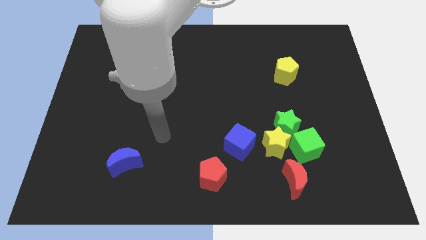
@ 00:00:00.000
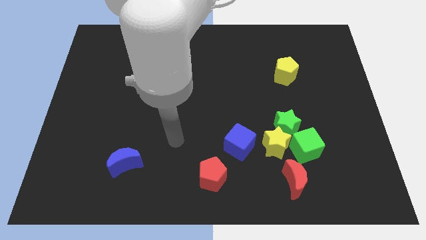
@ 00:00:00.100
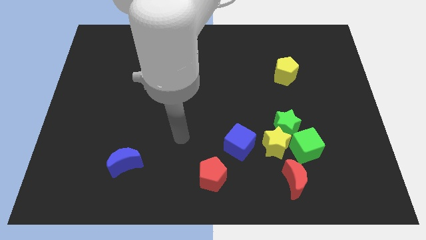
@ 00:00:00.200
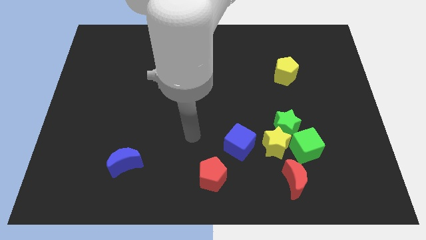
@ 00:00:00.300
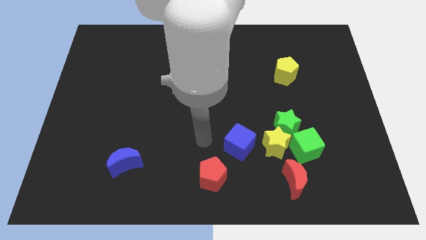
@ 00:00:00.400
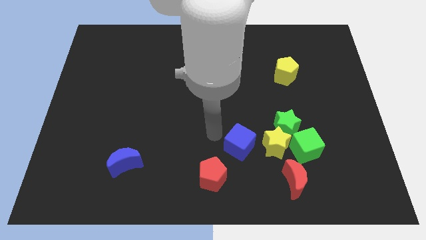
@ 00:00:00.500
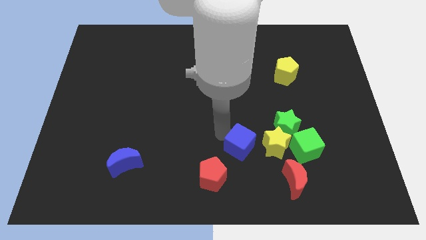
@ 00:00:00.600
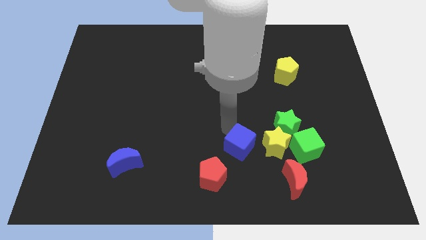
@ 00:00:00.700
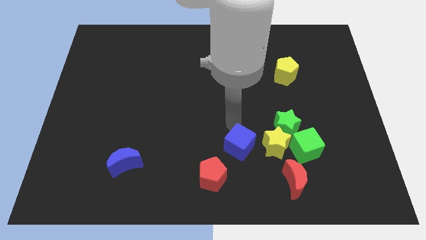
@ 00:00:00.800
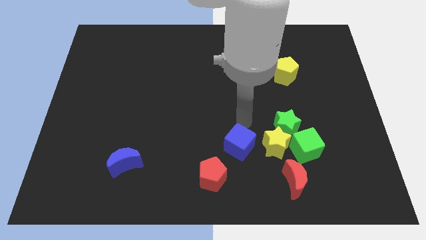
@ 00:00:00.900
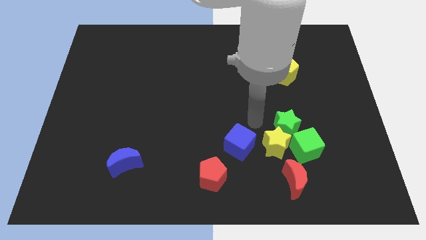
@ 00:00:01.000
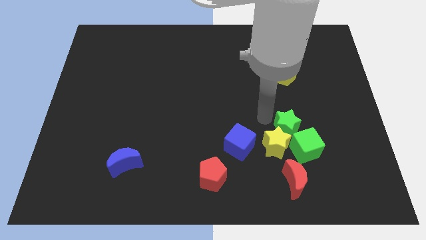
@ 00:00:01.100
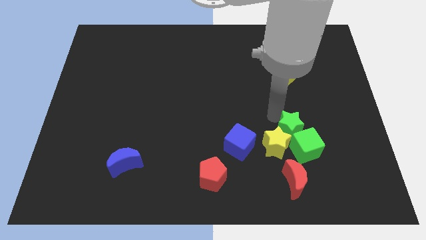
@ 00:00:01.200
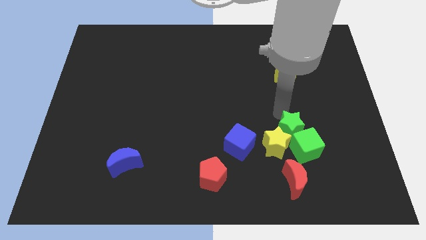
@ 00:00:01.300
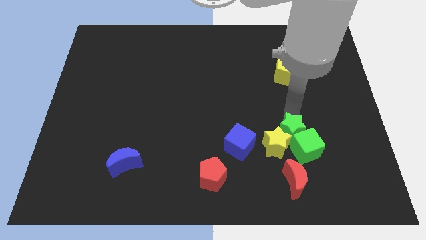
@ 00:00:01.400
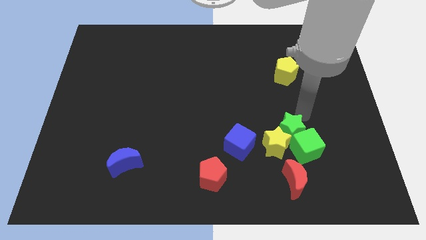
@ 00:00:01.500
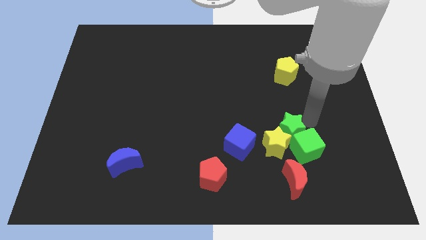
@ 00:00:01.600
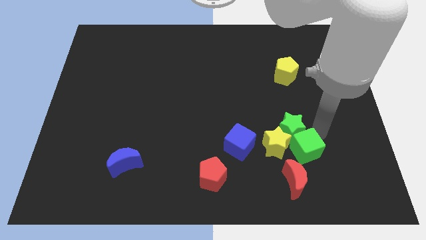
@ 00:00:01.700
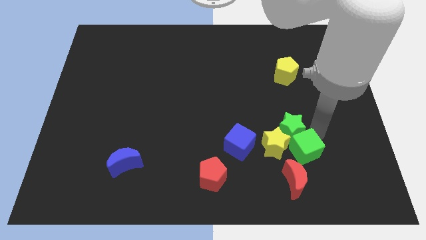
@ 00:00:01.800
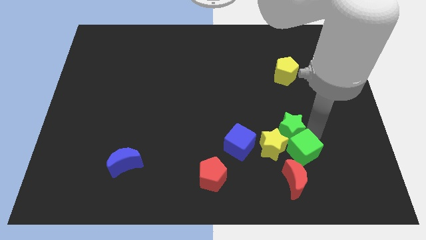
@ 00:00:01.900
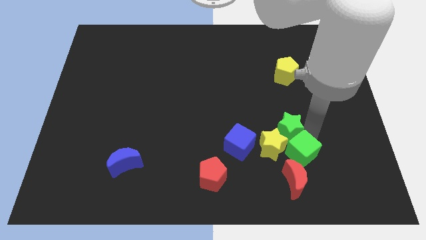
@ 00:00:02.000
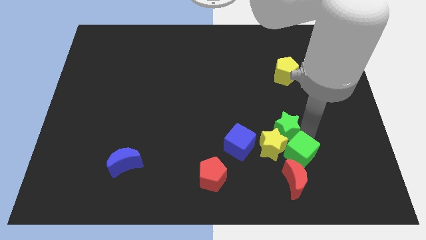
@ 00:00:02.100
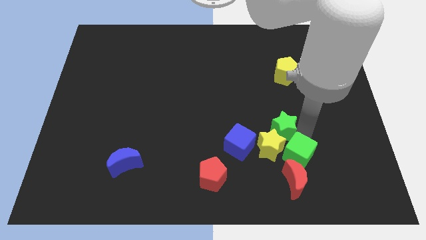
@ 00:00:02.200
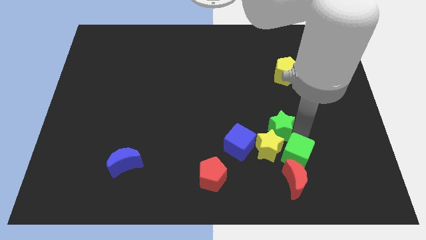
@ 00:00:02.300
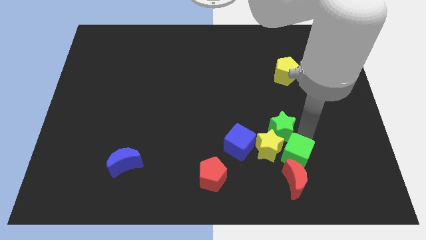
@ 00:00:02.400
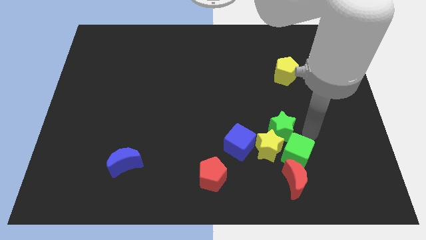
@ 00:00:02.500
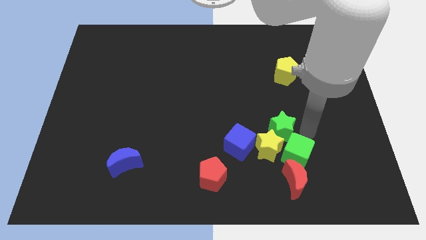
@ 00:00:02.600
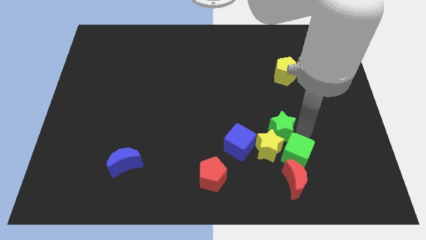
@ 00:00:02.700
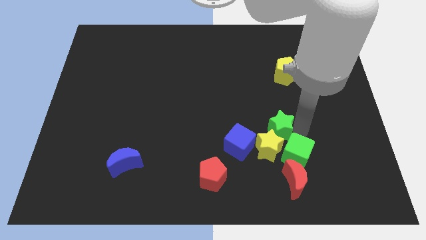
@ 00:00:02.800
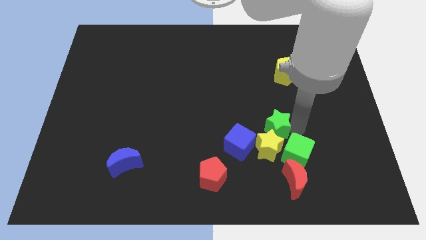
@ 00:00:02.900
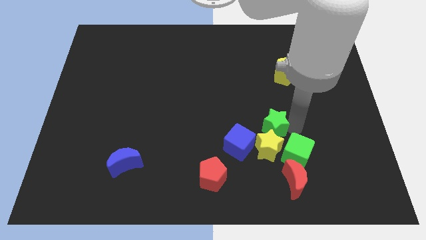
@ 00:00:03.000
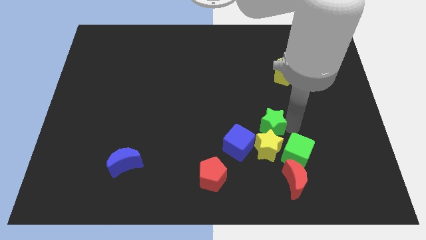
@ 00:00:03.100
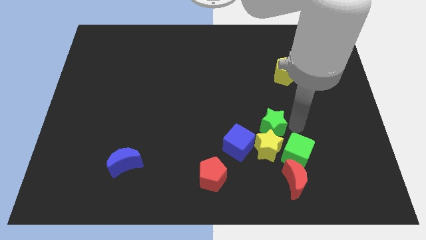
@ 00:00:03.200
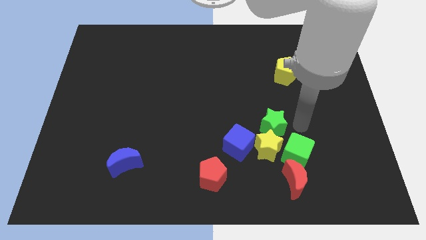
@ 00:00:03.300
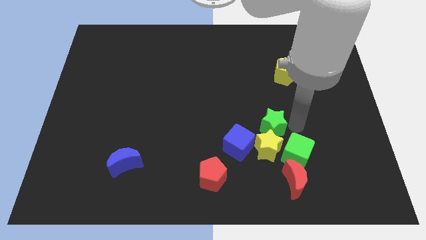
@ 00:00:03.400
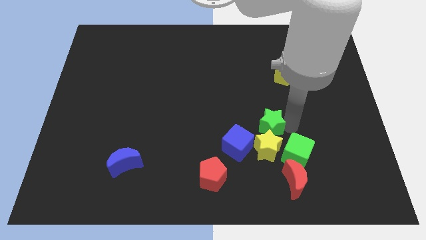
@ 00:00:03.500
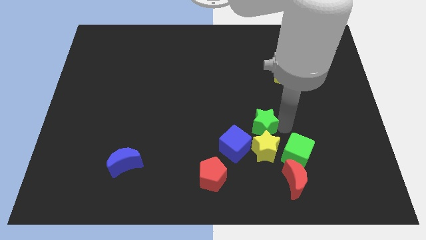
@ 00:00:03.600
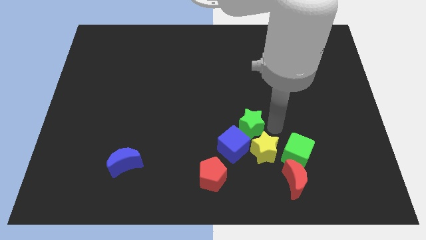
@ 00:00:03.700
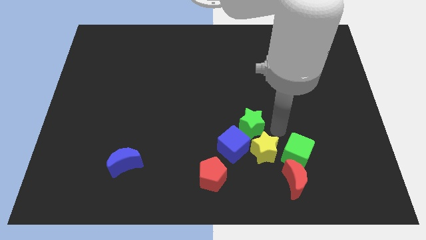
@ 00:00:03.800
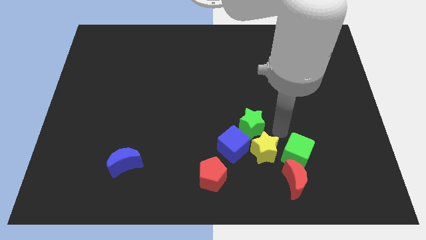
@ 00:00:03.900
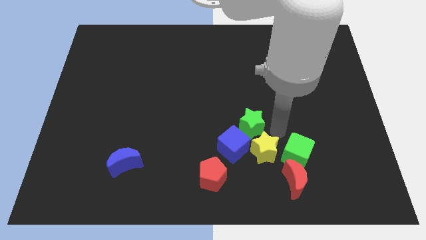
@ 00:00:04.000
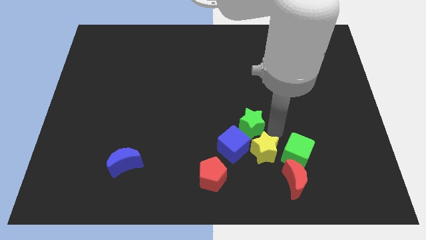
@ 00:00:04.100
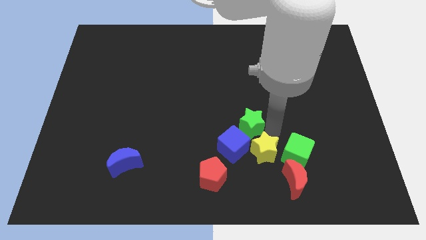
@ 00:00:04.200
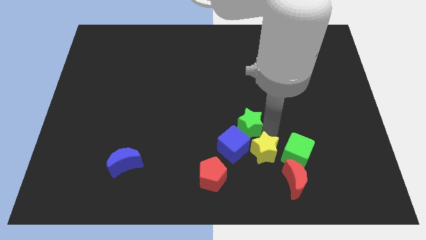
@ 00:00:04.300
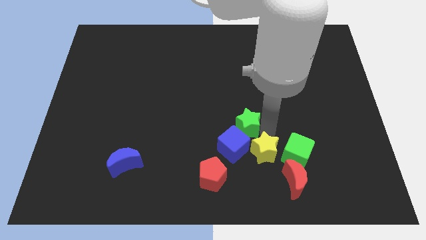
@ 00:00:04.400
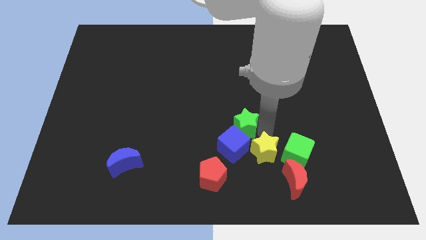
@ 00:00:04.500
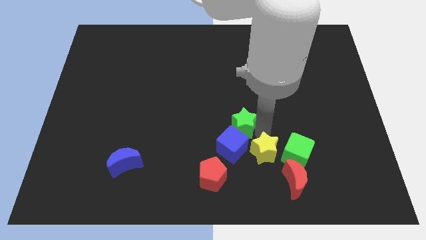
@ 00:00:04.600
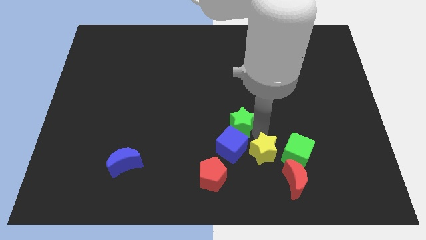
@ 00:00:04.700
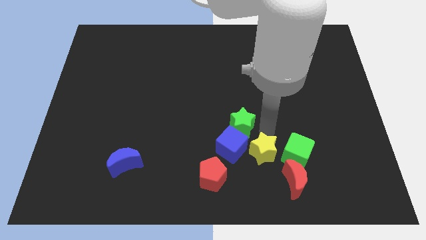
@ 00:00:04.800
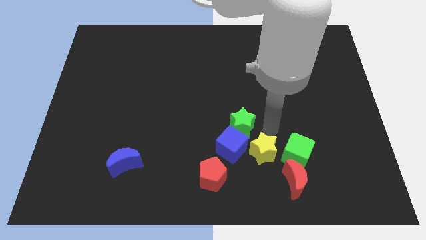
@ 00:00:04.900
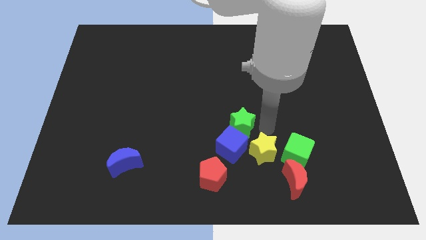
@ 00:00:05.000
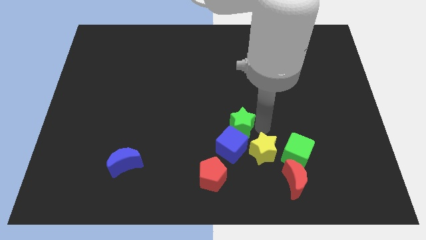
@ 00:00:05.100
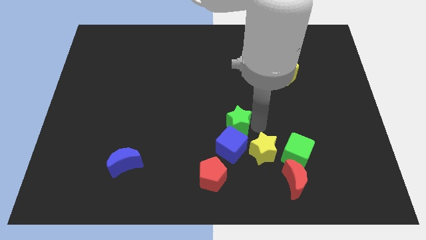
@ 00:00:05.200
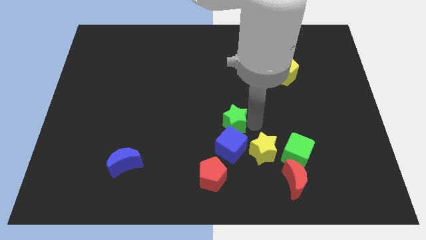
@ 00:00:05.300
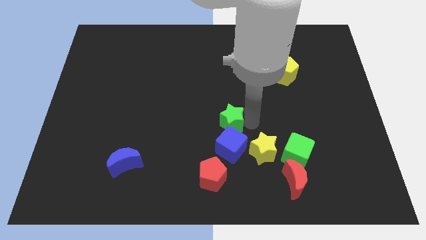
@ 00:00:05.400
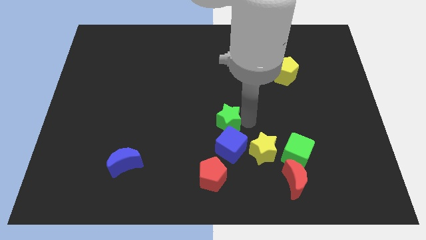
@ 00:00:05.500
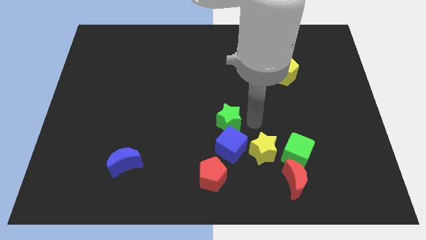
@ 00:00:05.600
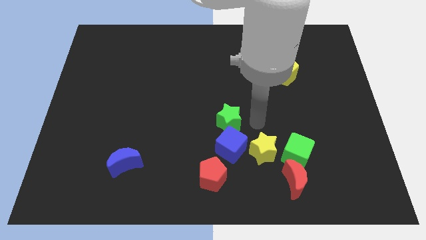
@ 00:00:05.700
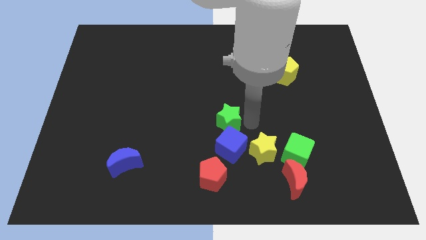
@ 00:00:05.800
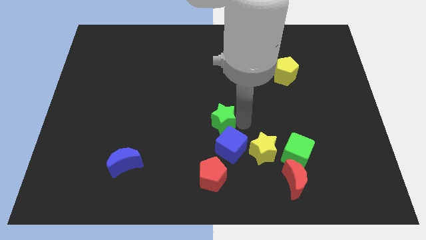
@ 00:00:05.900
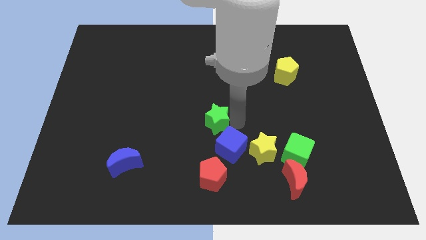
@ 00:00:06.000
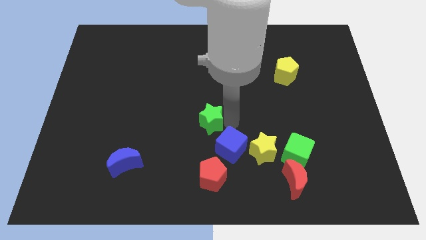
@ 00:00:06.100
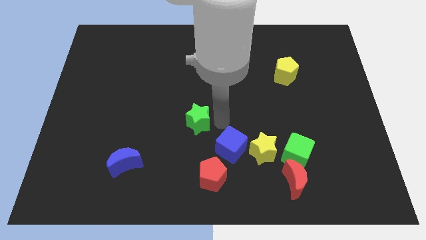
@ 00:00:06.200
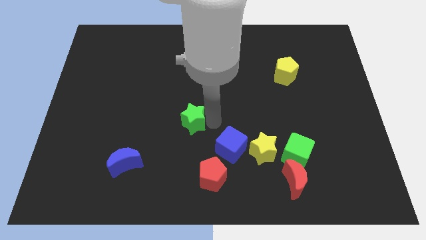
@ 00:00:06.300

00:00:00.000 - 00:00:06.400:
move the green star left

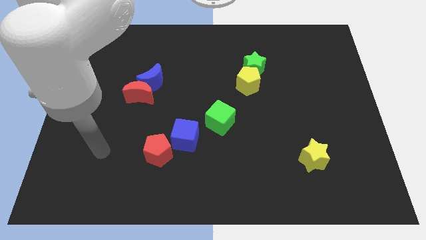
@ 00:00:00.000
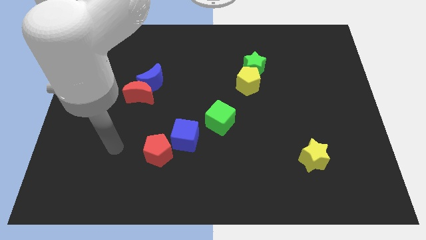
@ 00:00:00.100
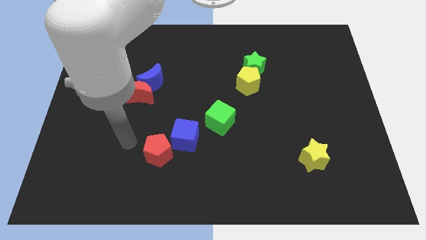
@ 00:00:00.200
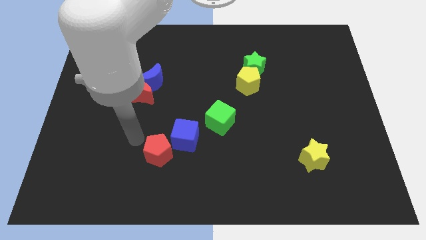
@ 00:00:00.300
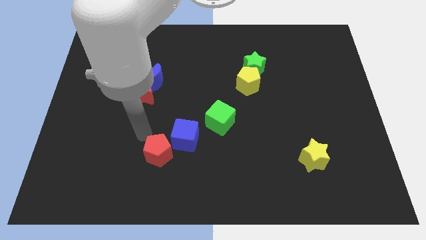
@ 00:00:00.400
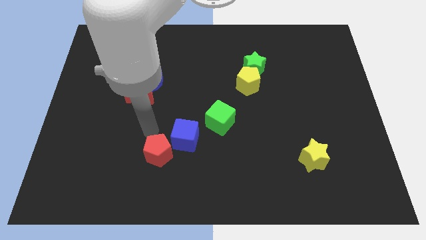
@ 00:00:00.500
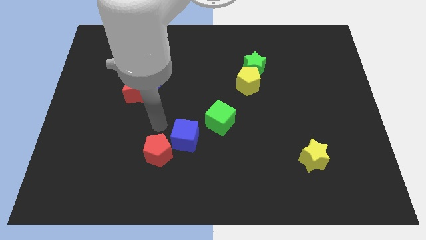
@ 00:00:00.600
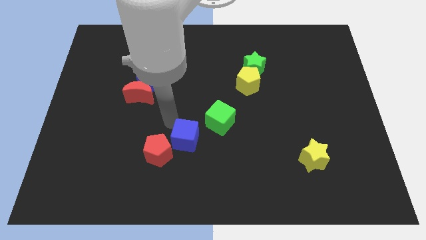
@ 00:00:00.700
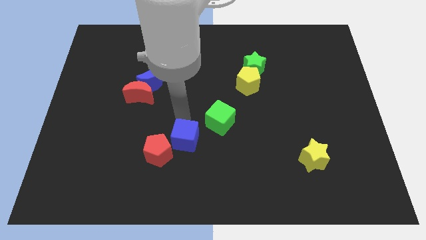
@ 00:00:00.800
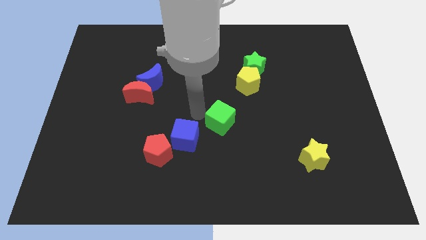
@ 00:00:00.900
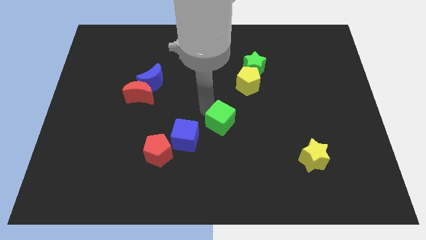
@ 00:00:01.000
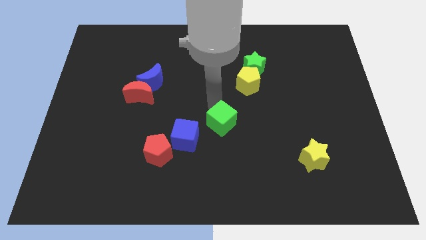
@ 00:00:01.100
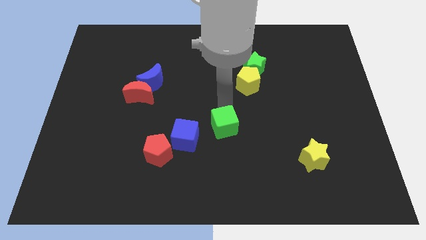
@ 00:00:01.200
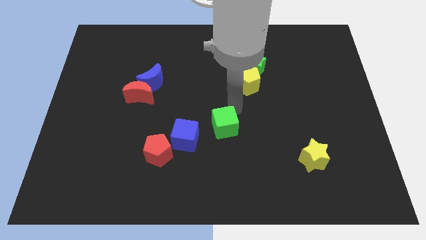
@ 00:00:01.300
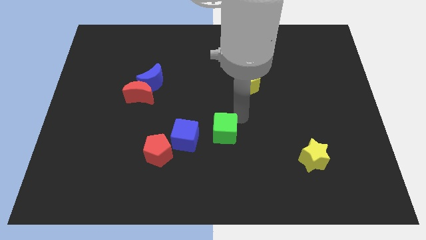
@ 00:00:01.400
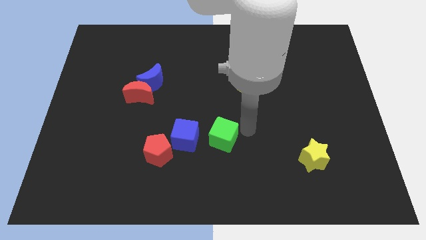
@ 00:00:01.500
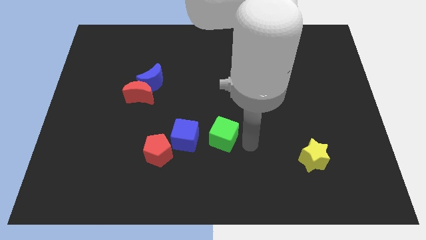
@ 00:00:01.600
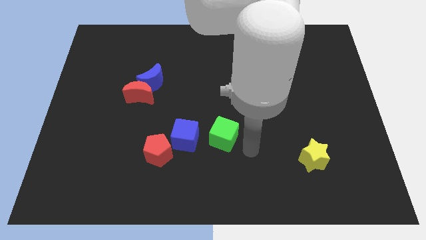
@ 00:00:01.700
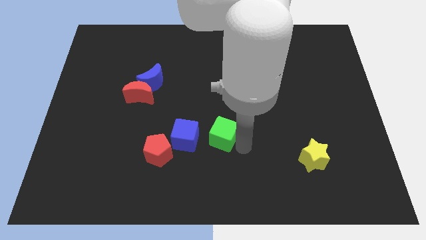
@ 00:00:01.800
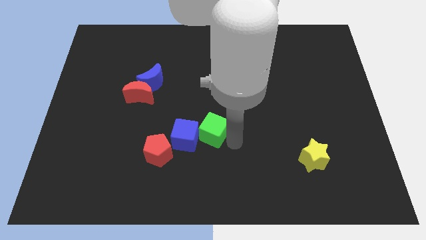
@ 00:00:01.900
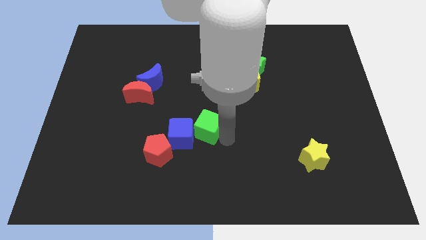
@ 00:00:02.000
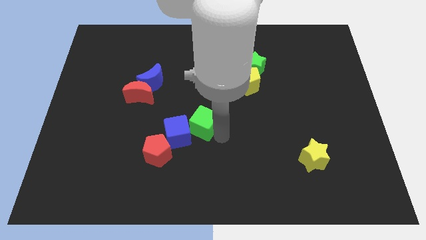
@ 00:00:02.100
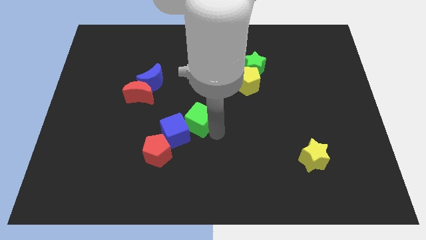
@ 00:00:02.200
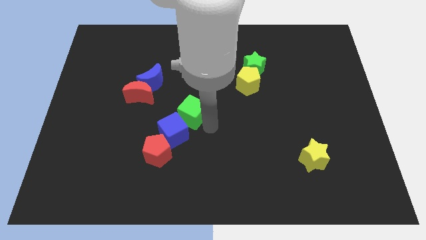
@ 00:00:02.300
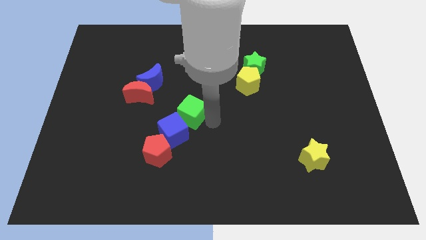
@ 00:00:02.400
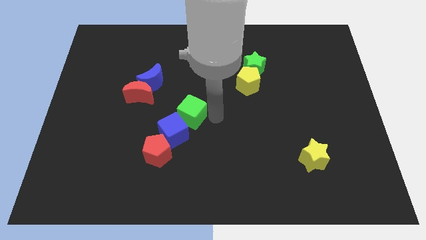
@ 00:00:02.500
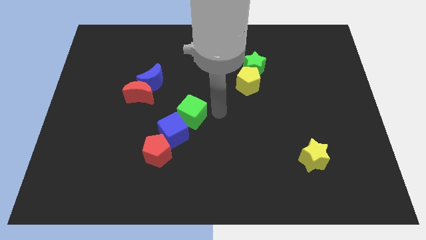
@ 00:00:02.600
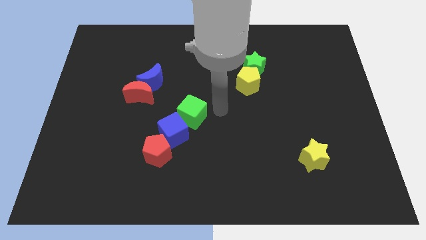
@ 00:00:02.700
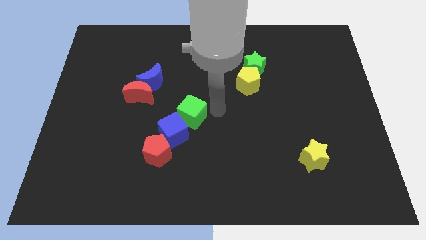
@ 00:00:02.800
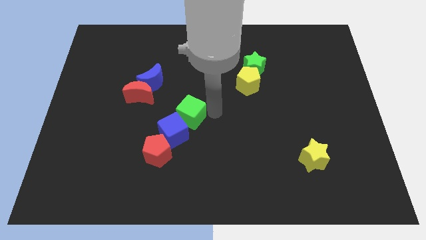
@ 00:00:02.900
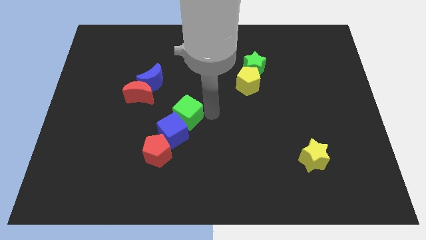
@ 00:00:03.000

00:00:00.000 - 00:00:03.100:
move the green cube left a bit
